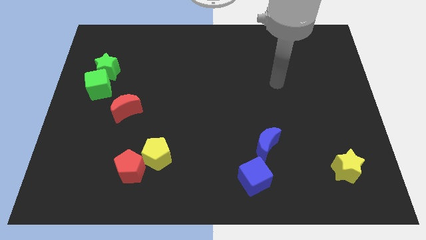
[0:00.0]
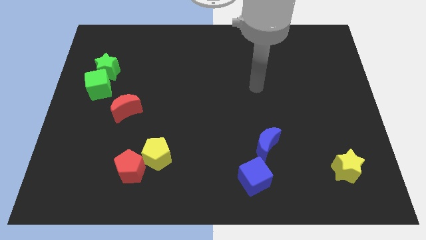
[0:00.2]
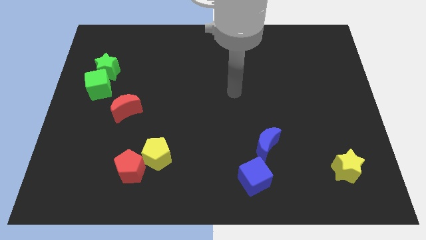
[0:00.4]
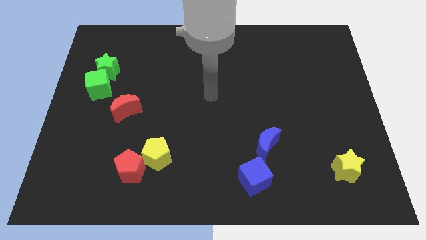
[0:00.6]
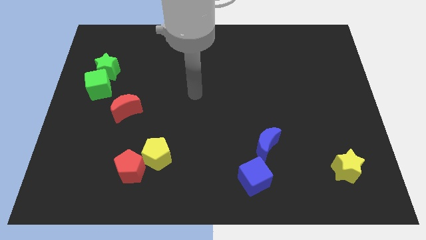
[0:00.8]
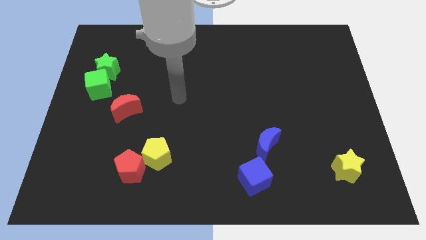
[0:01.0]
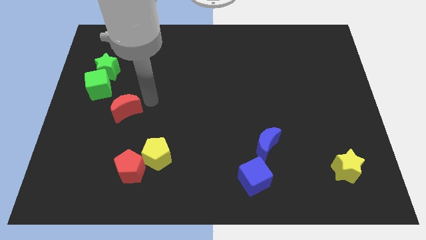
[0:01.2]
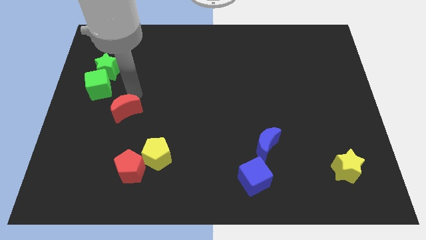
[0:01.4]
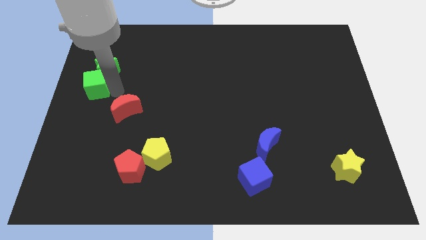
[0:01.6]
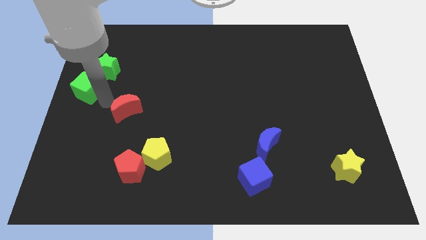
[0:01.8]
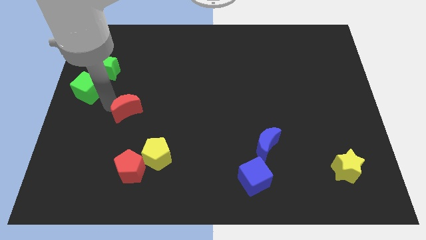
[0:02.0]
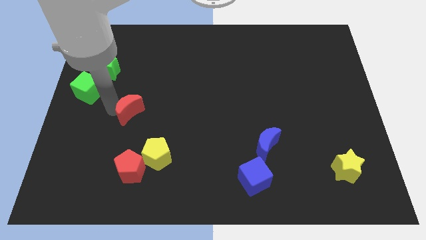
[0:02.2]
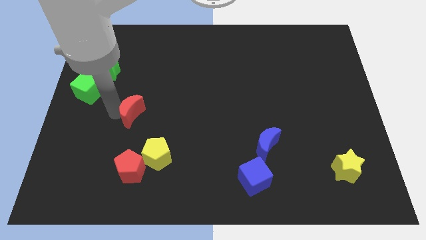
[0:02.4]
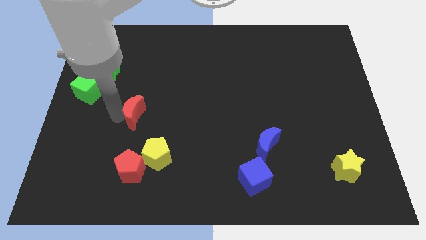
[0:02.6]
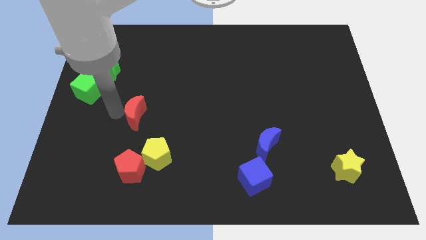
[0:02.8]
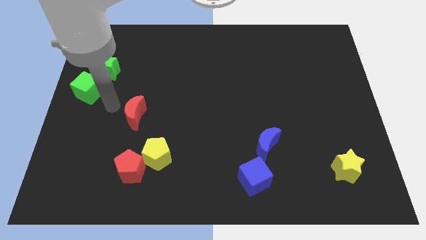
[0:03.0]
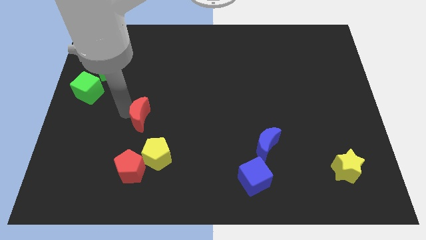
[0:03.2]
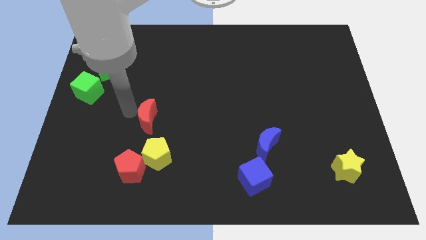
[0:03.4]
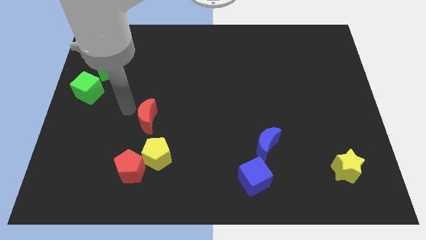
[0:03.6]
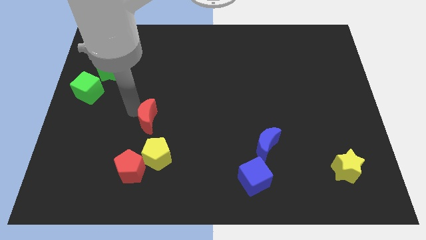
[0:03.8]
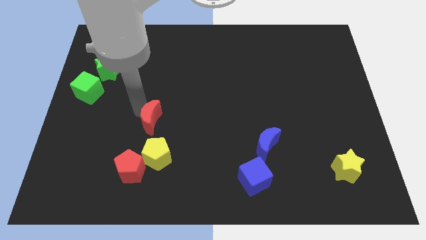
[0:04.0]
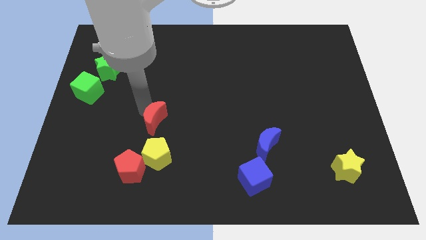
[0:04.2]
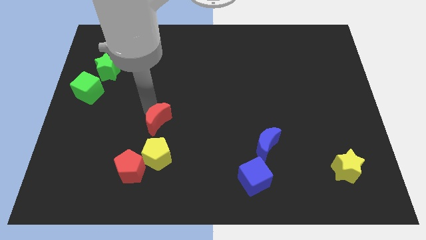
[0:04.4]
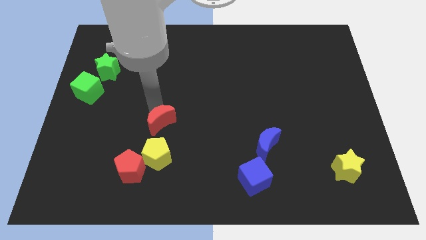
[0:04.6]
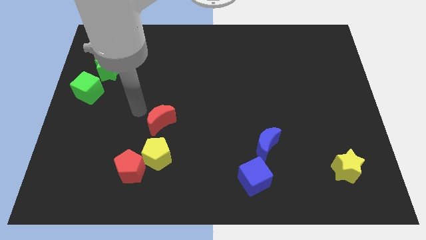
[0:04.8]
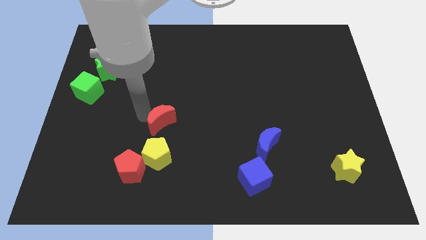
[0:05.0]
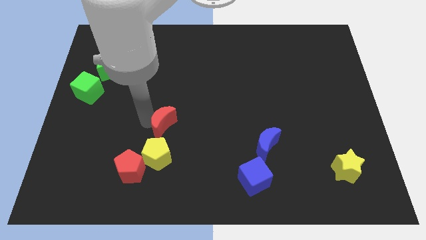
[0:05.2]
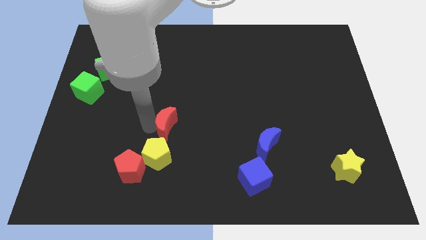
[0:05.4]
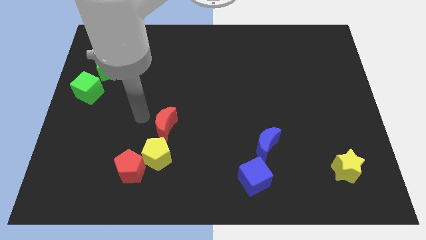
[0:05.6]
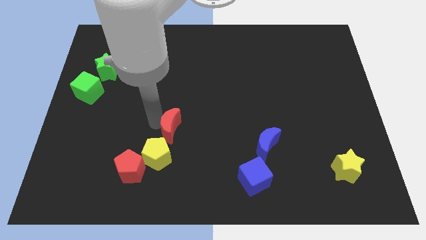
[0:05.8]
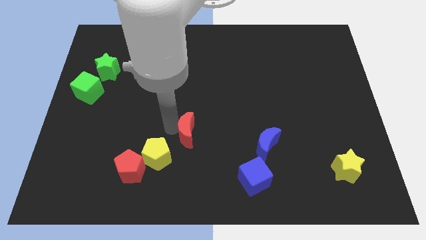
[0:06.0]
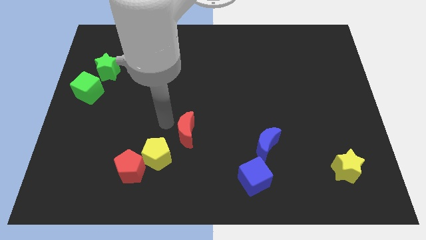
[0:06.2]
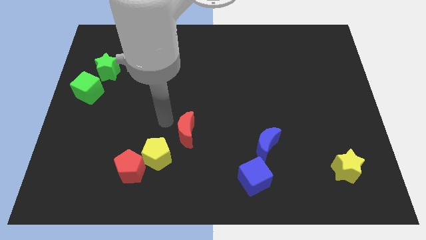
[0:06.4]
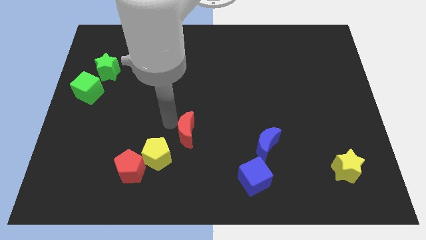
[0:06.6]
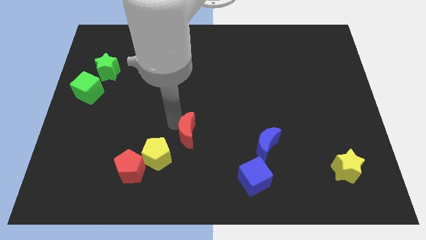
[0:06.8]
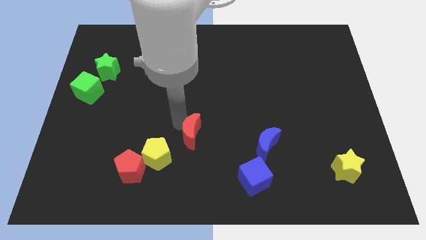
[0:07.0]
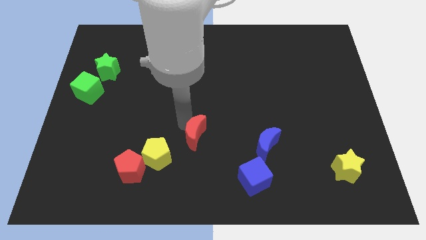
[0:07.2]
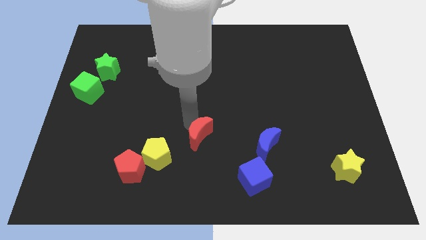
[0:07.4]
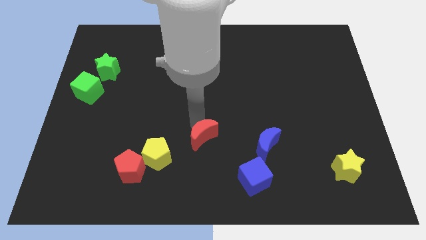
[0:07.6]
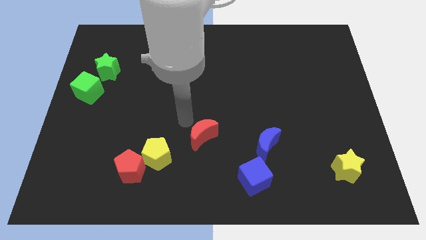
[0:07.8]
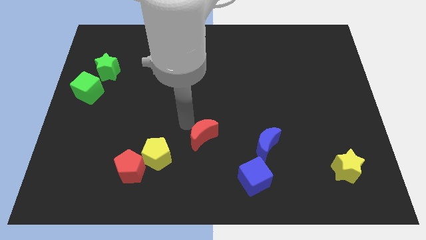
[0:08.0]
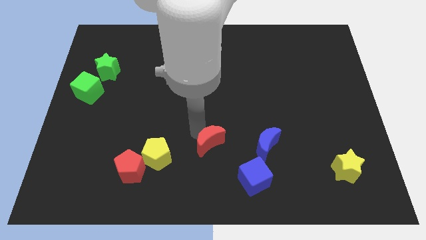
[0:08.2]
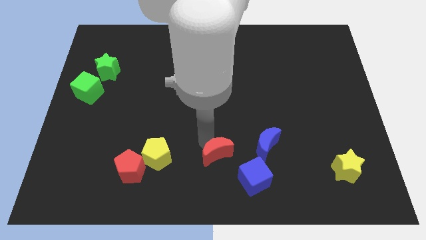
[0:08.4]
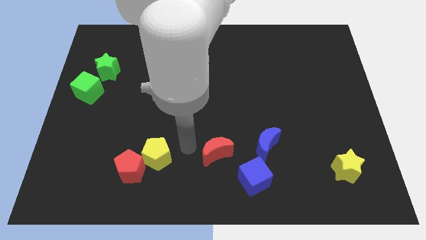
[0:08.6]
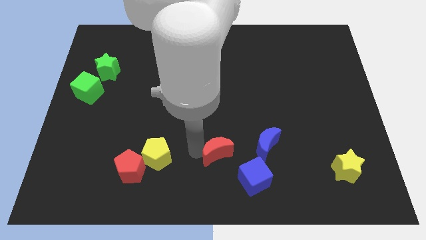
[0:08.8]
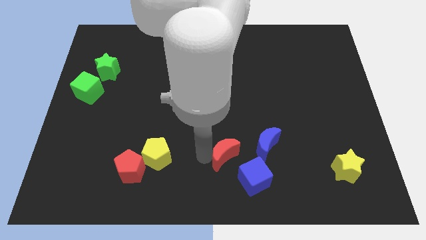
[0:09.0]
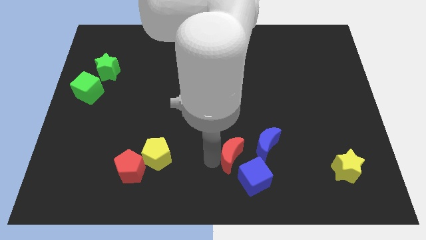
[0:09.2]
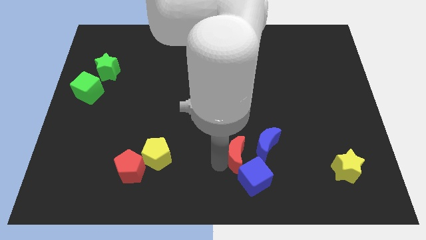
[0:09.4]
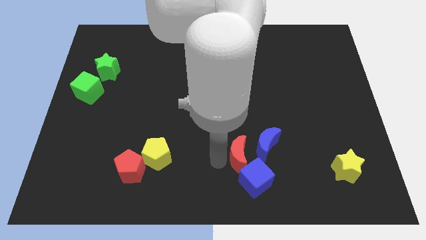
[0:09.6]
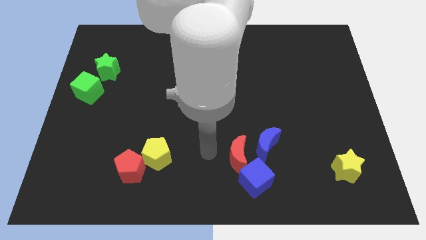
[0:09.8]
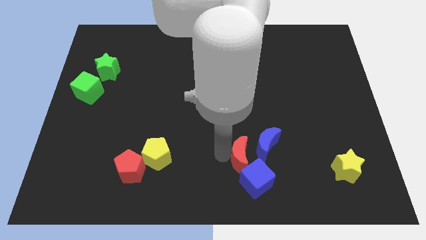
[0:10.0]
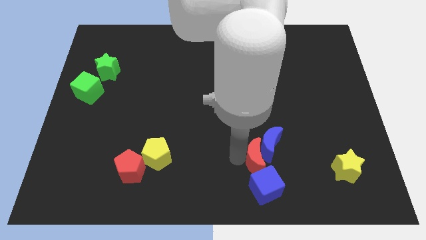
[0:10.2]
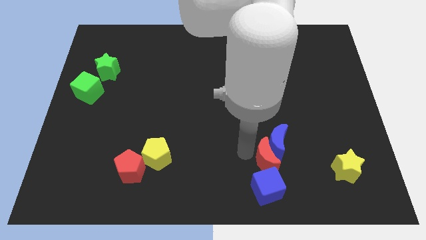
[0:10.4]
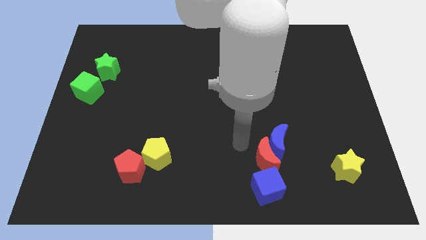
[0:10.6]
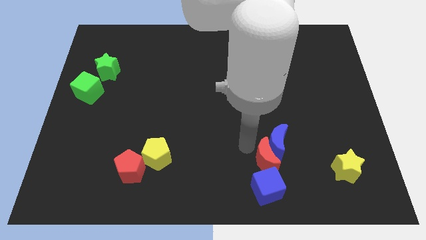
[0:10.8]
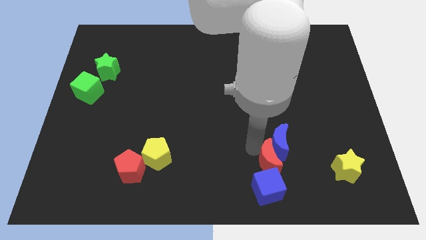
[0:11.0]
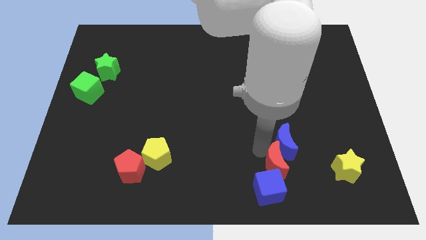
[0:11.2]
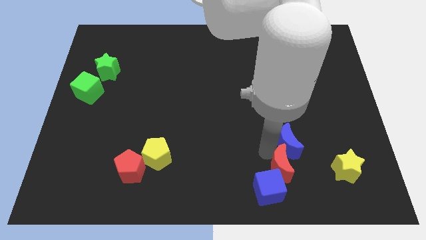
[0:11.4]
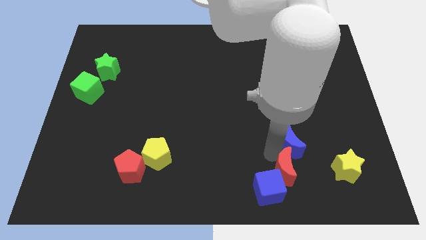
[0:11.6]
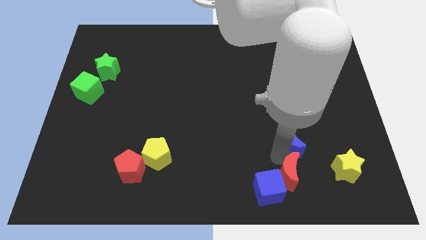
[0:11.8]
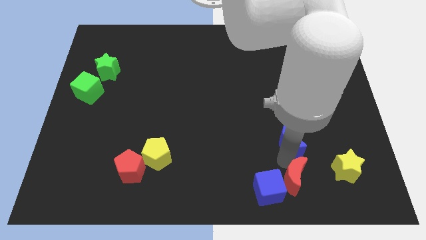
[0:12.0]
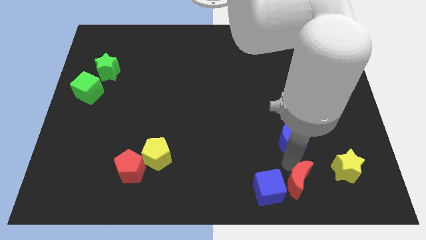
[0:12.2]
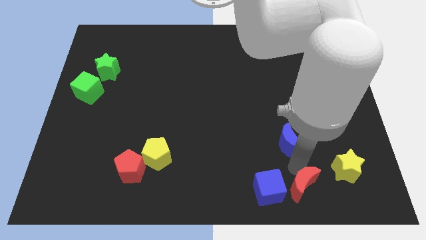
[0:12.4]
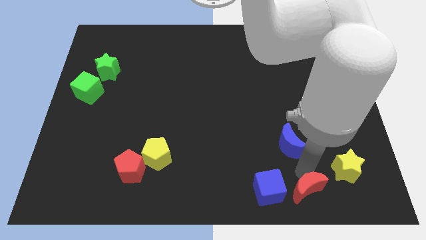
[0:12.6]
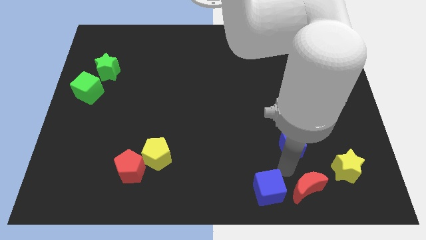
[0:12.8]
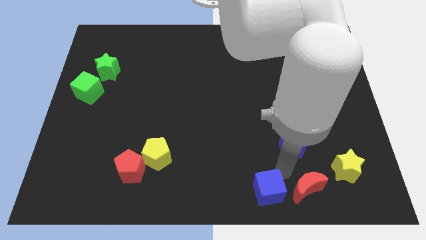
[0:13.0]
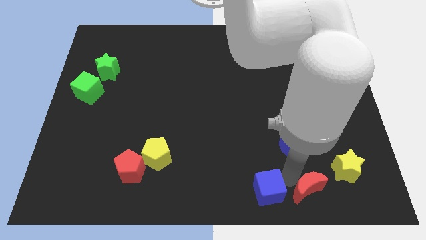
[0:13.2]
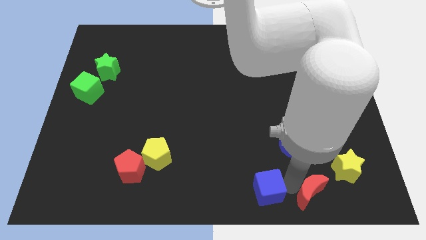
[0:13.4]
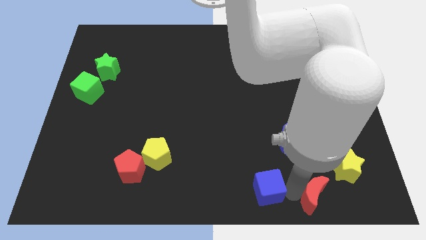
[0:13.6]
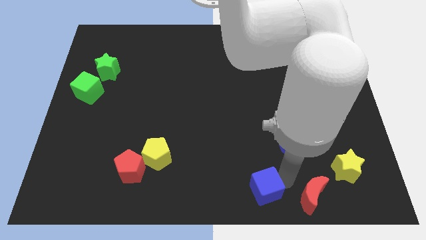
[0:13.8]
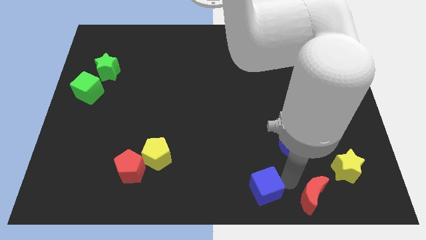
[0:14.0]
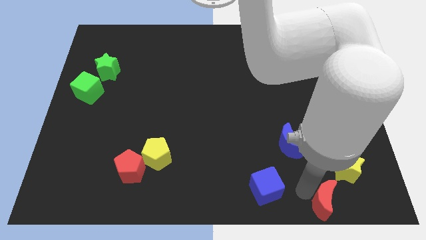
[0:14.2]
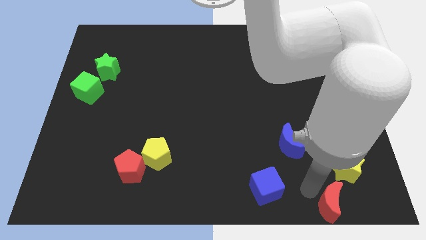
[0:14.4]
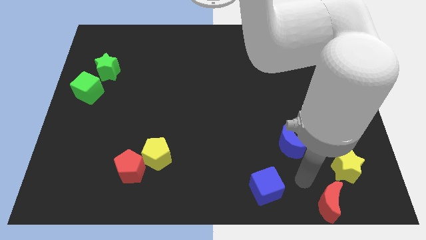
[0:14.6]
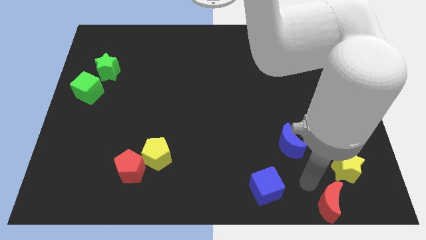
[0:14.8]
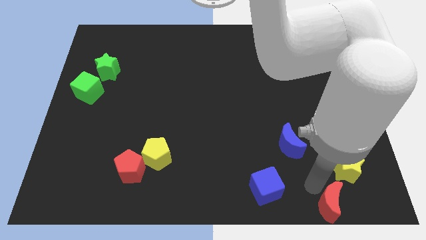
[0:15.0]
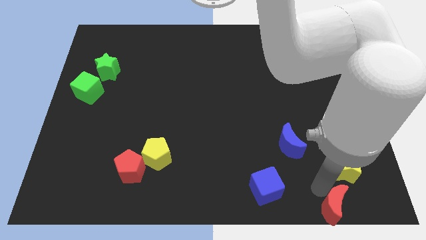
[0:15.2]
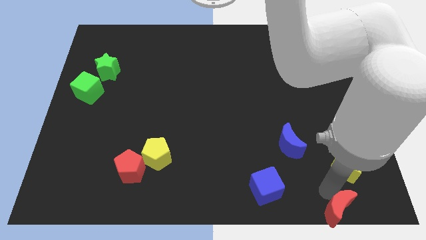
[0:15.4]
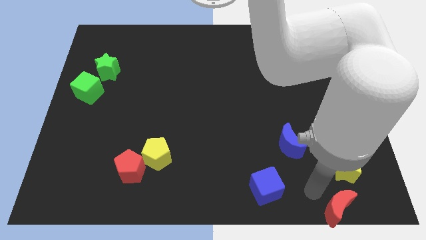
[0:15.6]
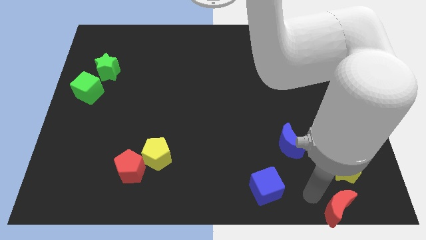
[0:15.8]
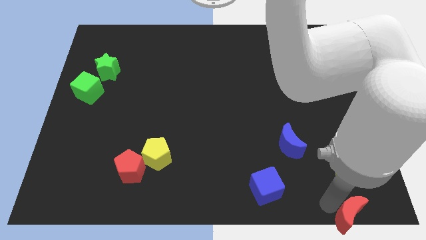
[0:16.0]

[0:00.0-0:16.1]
move the red moon to the lower right corner
